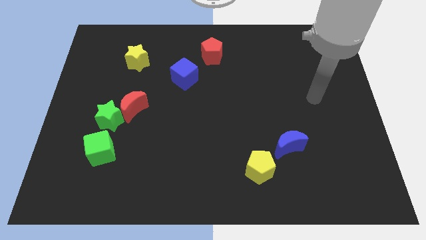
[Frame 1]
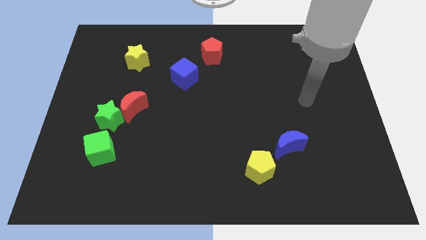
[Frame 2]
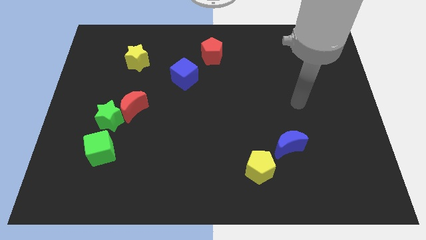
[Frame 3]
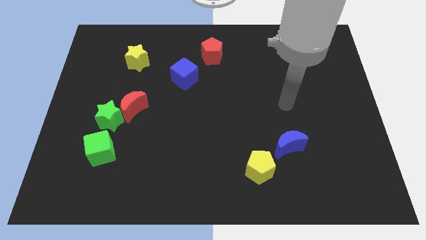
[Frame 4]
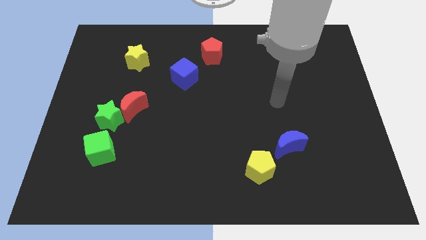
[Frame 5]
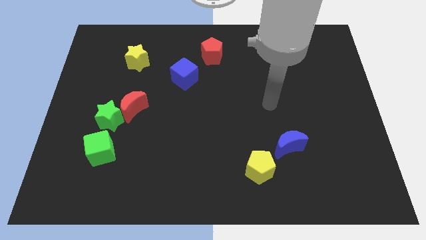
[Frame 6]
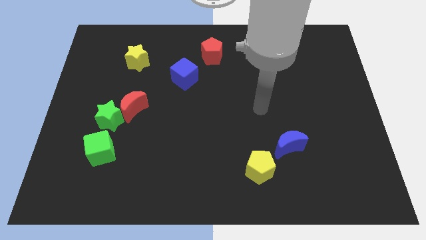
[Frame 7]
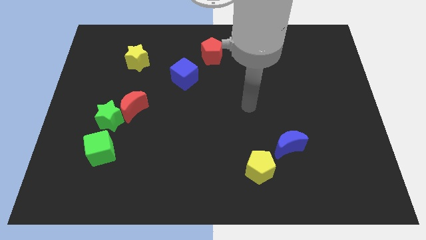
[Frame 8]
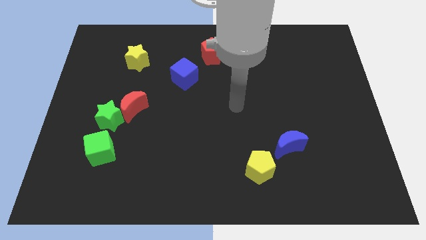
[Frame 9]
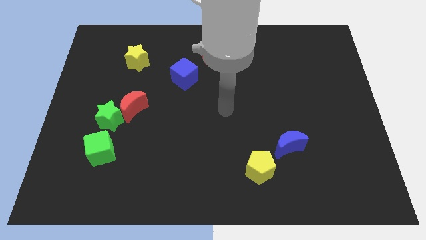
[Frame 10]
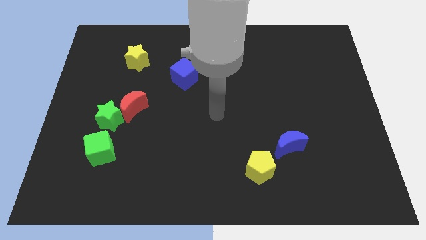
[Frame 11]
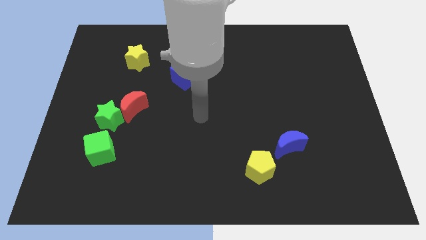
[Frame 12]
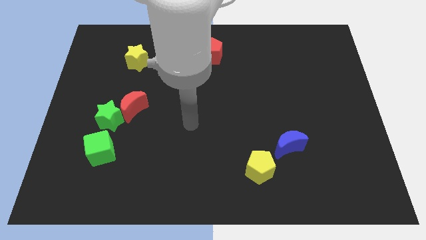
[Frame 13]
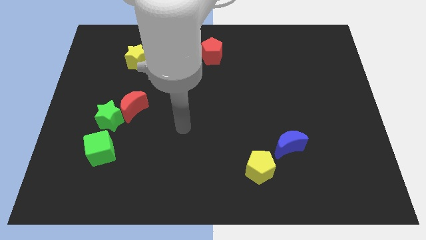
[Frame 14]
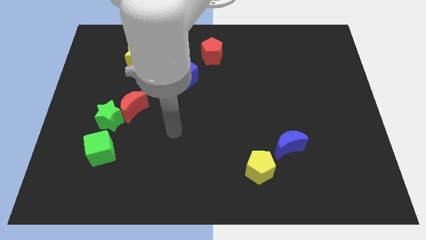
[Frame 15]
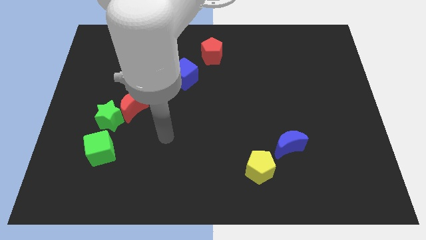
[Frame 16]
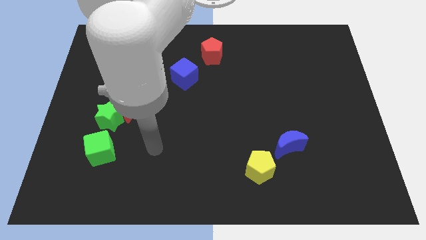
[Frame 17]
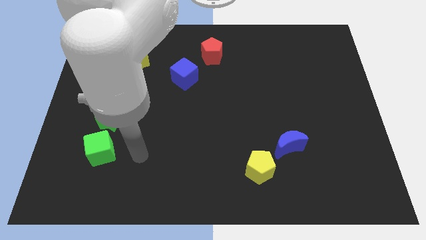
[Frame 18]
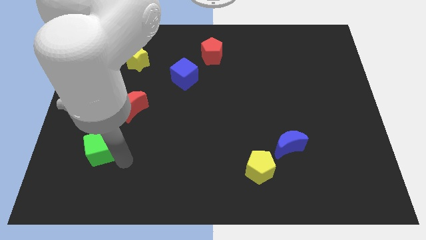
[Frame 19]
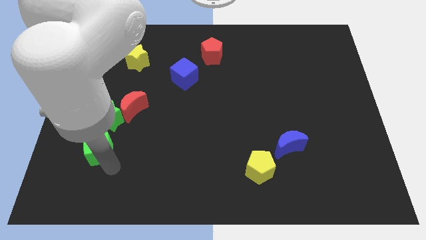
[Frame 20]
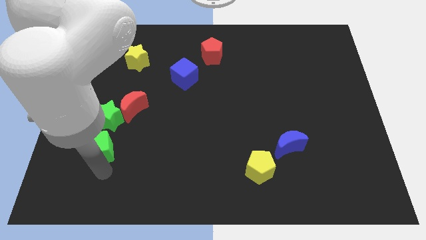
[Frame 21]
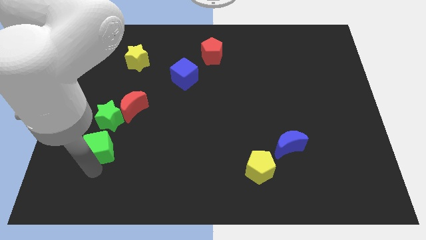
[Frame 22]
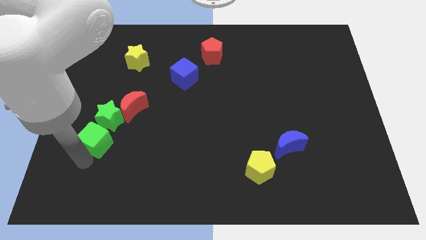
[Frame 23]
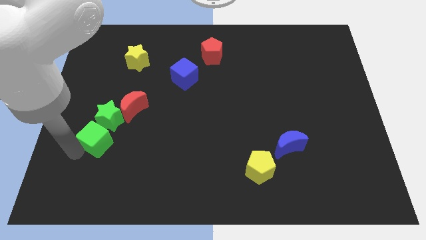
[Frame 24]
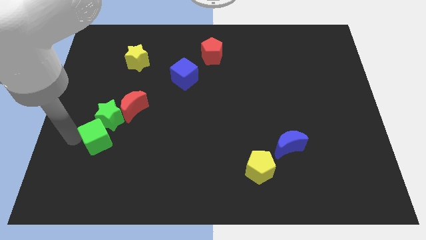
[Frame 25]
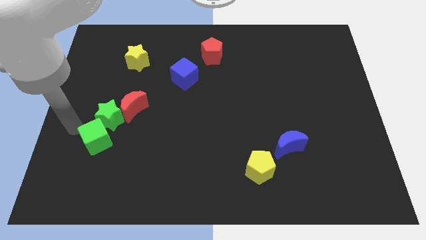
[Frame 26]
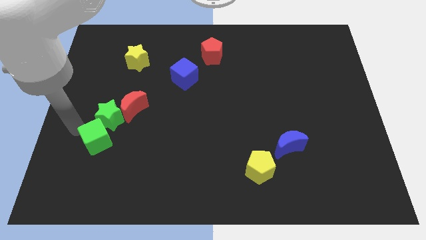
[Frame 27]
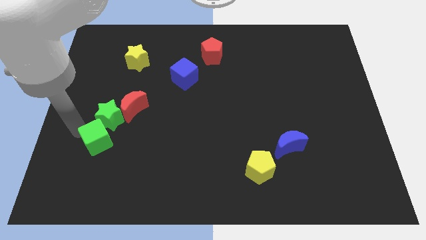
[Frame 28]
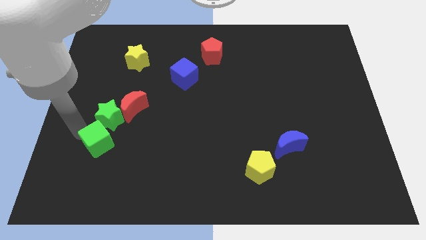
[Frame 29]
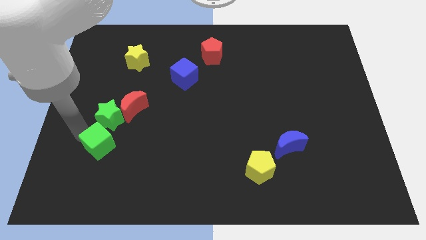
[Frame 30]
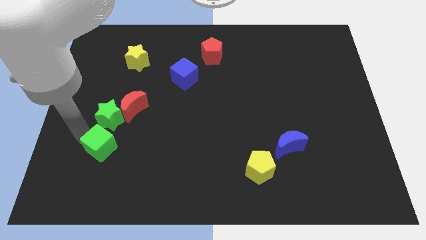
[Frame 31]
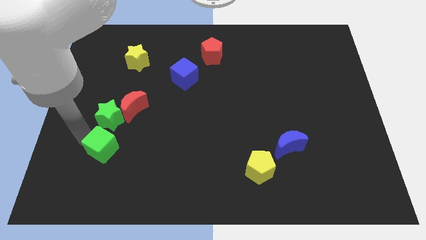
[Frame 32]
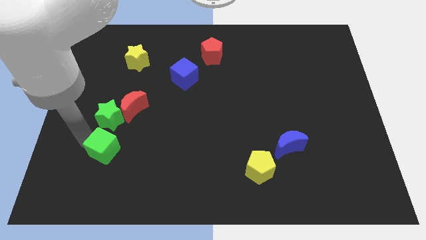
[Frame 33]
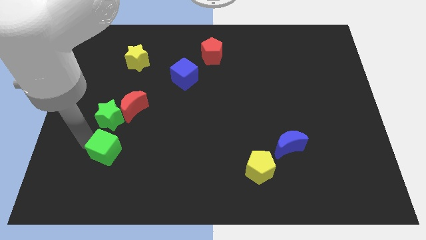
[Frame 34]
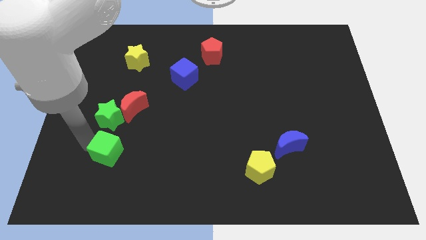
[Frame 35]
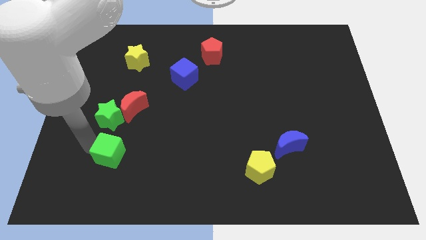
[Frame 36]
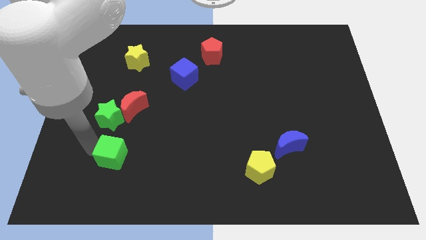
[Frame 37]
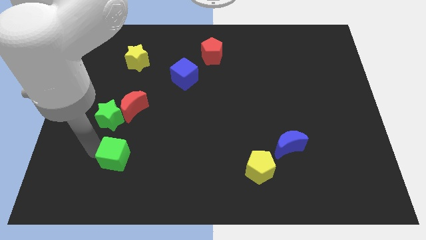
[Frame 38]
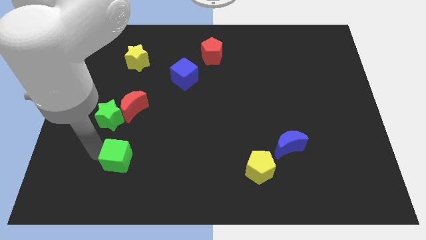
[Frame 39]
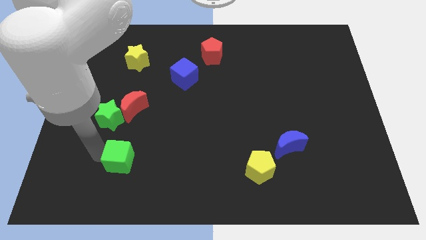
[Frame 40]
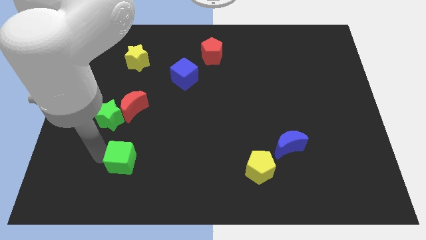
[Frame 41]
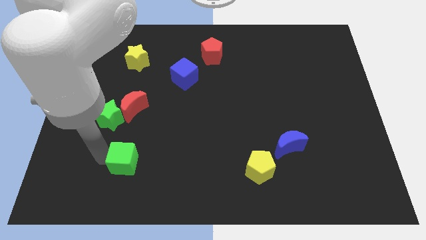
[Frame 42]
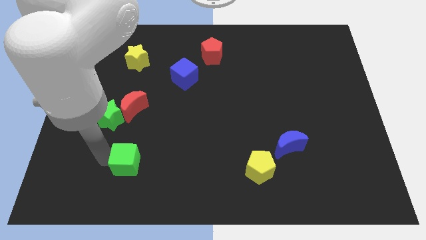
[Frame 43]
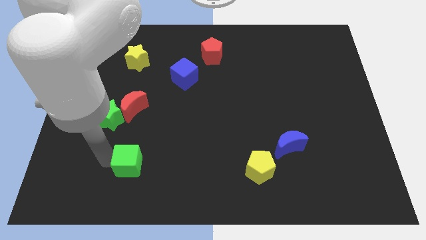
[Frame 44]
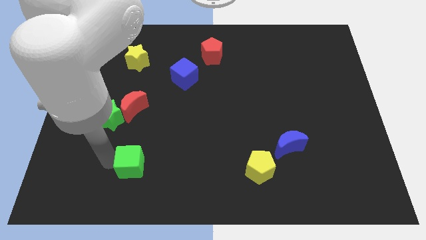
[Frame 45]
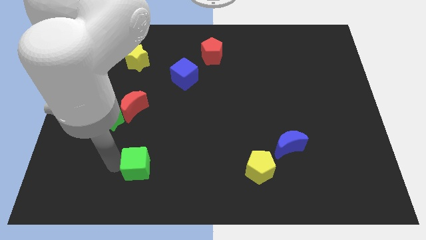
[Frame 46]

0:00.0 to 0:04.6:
push the green cube to the right a little

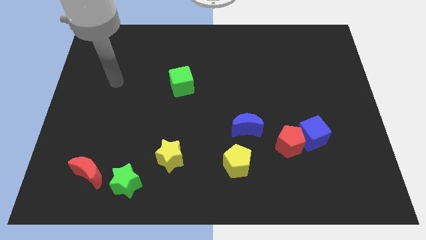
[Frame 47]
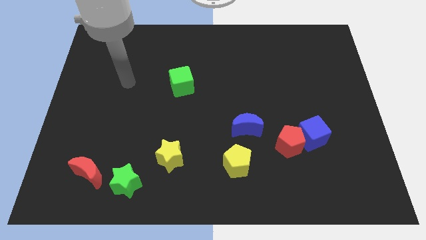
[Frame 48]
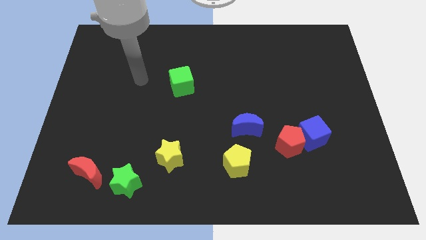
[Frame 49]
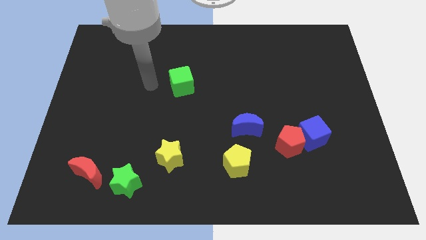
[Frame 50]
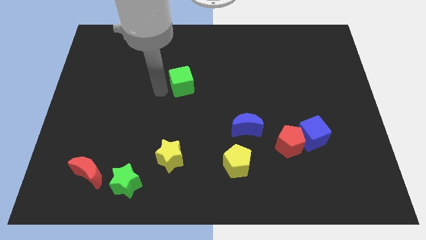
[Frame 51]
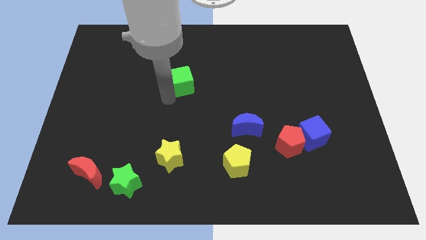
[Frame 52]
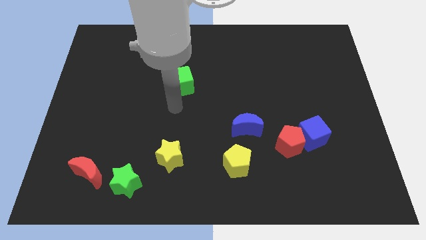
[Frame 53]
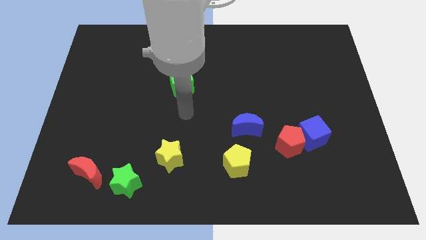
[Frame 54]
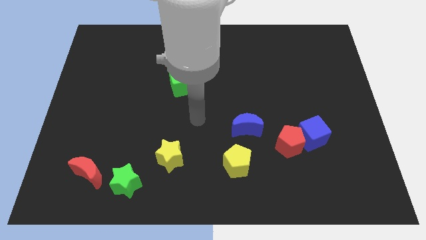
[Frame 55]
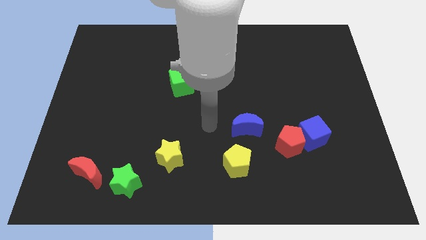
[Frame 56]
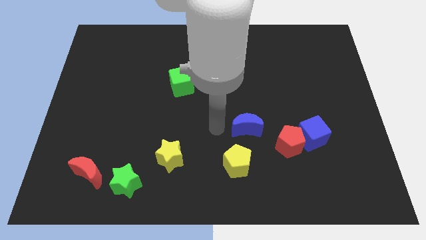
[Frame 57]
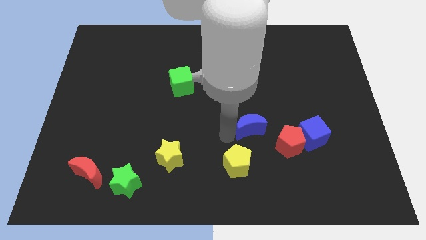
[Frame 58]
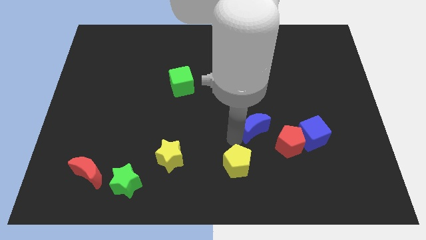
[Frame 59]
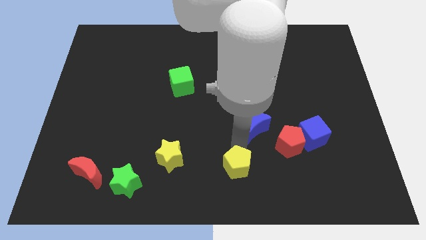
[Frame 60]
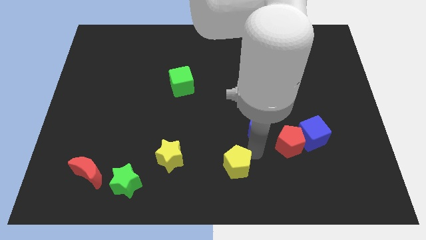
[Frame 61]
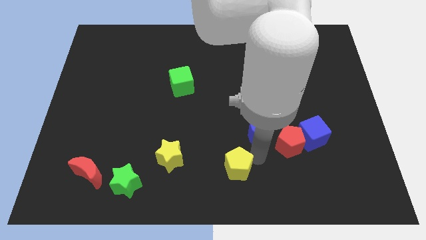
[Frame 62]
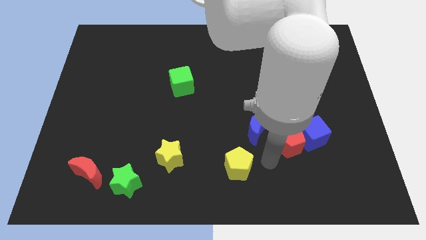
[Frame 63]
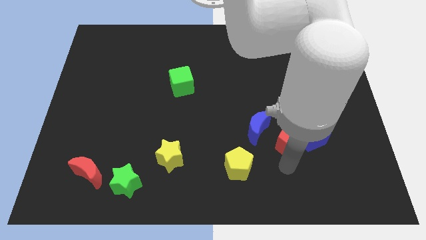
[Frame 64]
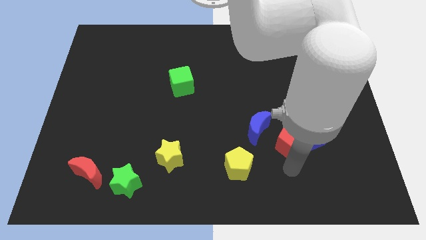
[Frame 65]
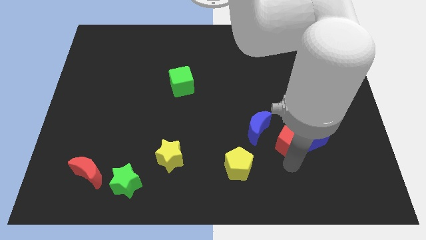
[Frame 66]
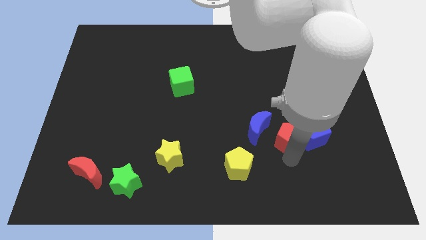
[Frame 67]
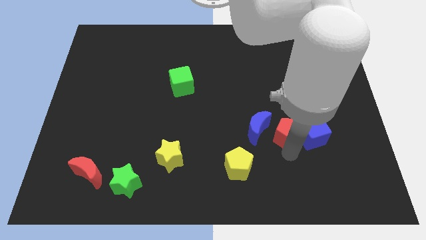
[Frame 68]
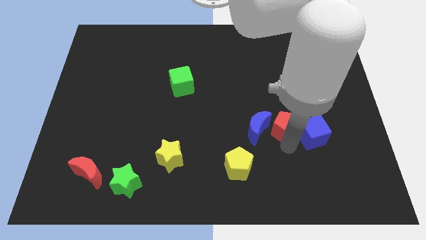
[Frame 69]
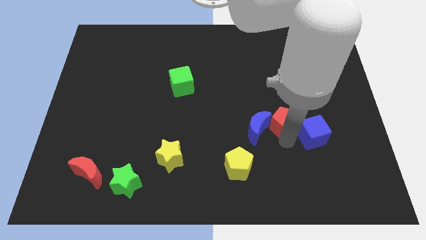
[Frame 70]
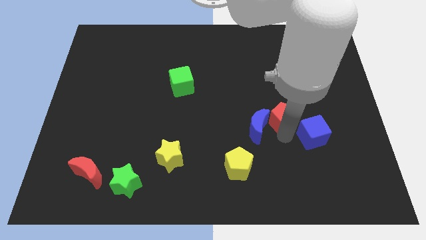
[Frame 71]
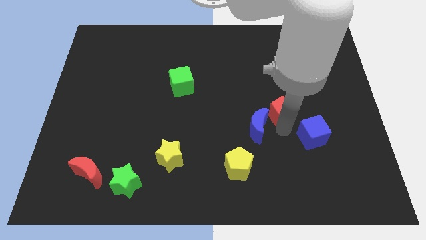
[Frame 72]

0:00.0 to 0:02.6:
slightly push the red pentagon up

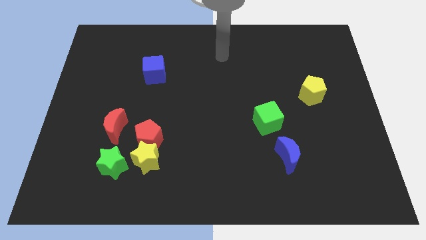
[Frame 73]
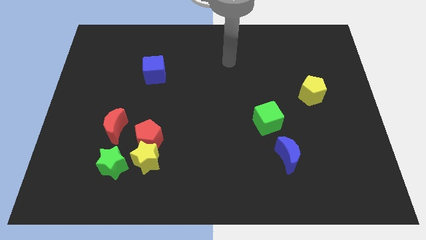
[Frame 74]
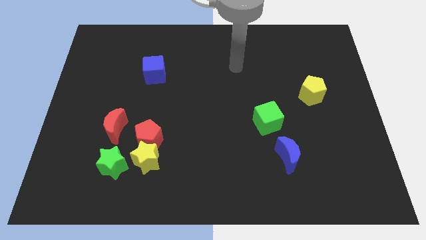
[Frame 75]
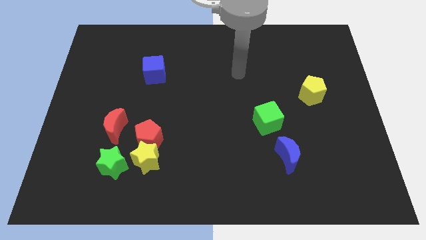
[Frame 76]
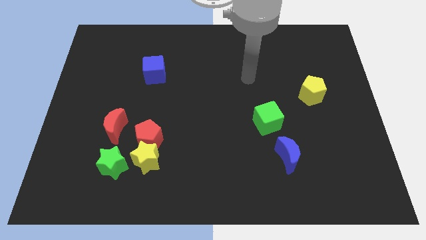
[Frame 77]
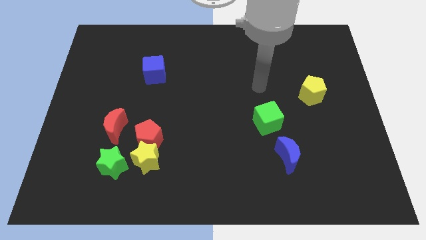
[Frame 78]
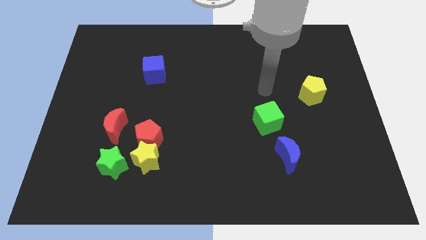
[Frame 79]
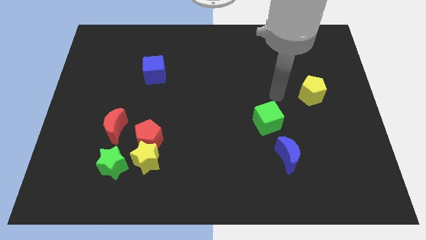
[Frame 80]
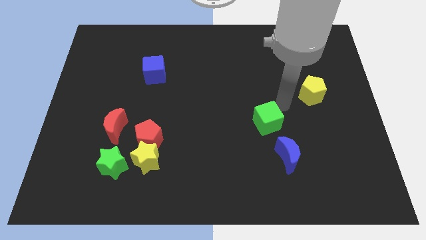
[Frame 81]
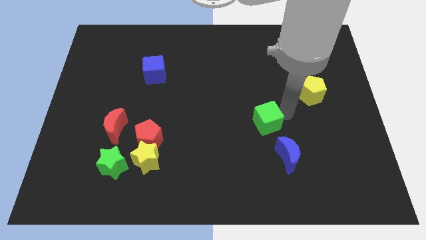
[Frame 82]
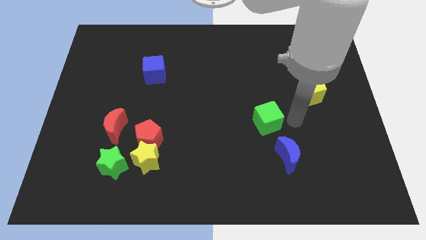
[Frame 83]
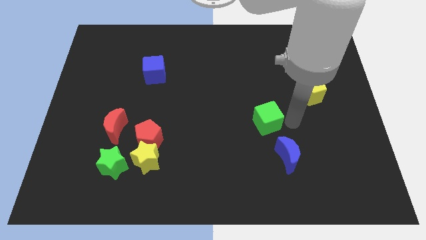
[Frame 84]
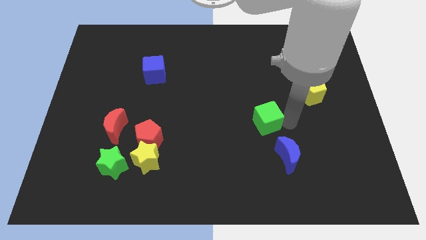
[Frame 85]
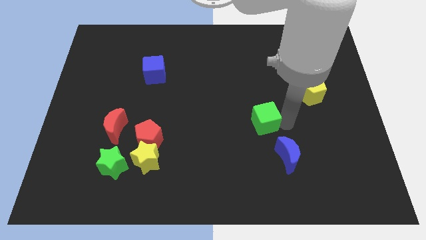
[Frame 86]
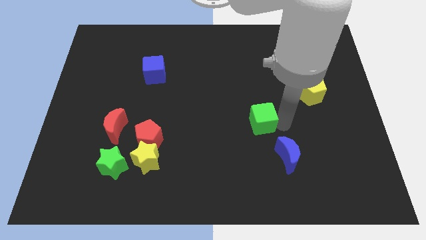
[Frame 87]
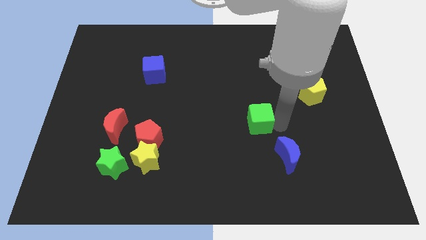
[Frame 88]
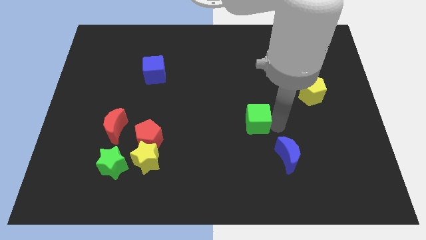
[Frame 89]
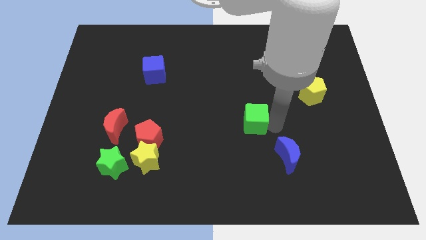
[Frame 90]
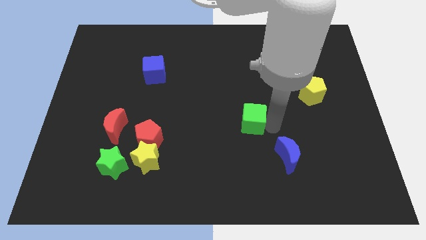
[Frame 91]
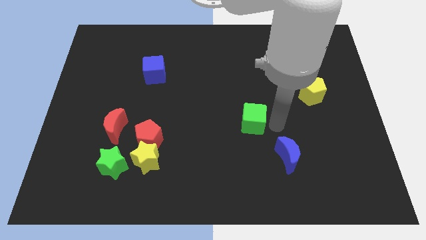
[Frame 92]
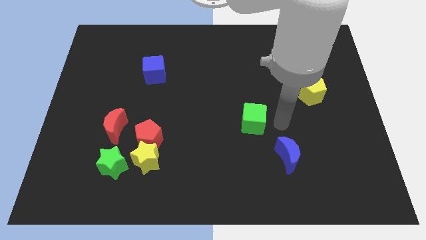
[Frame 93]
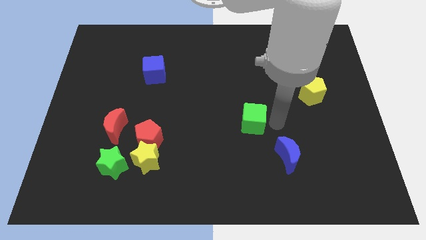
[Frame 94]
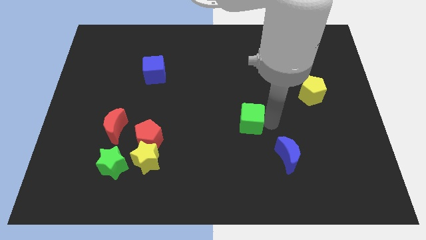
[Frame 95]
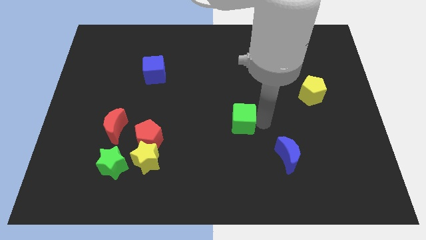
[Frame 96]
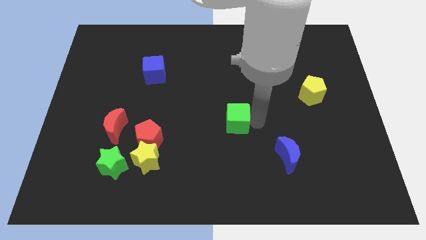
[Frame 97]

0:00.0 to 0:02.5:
slightly slide the green cube left
